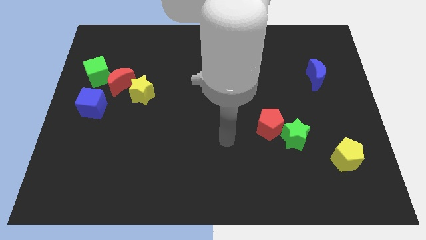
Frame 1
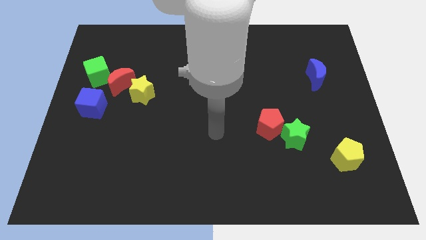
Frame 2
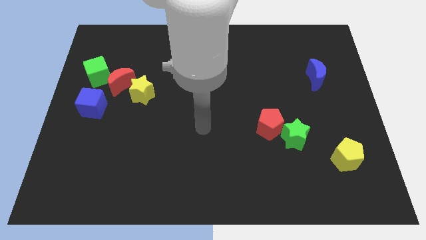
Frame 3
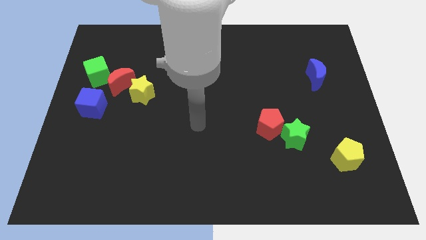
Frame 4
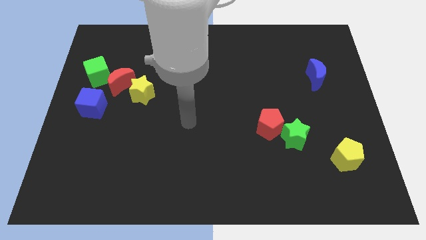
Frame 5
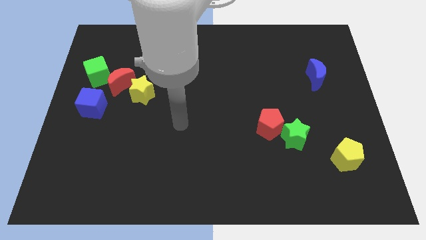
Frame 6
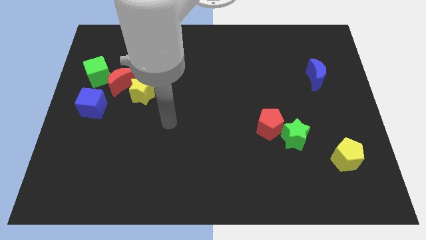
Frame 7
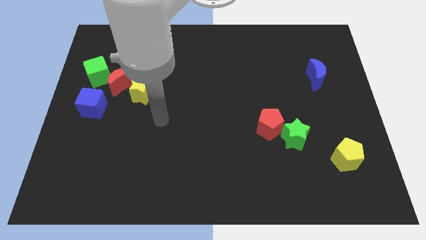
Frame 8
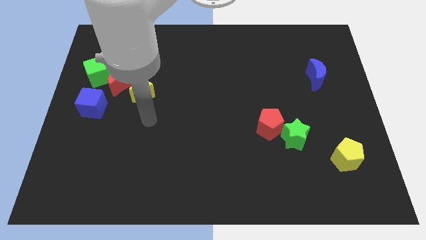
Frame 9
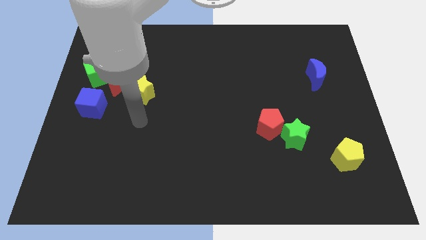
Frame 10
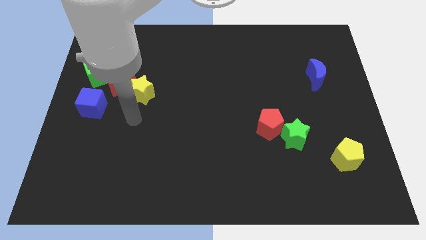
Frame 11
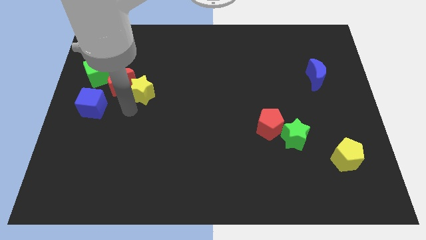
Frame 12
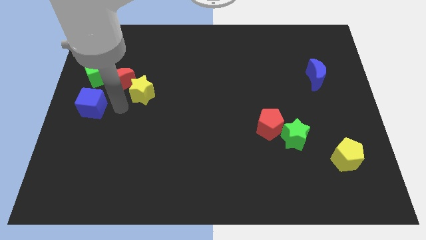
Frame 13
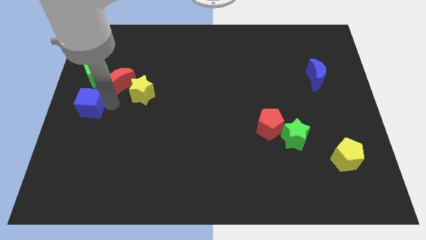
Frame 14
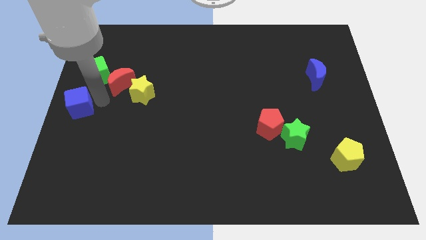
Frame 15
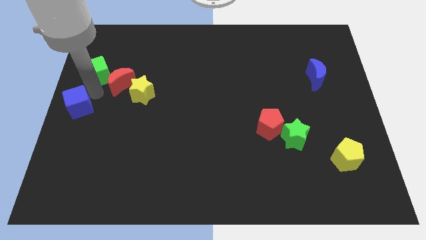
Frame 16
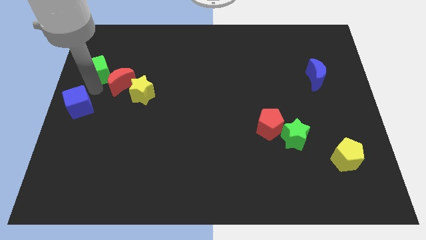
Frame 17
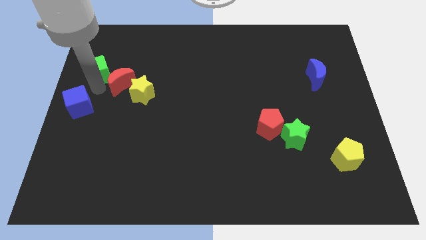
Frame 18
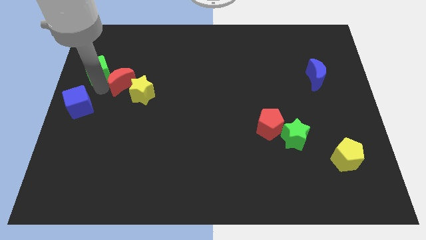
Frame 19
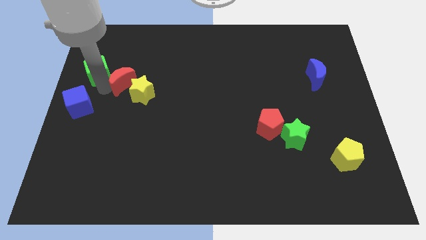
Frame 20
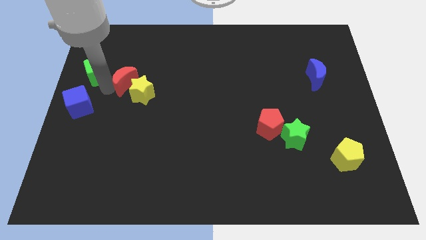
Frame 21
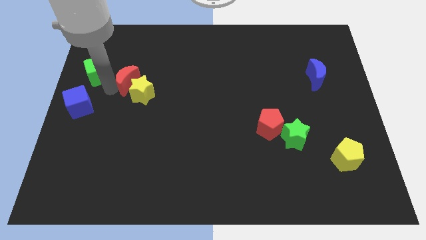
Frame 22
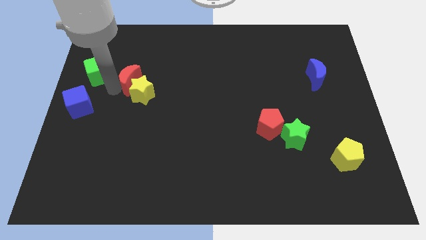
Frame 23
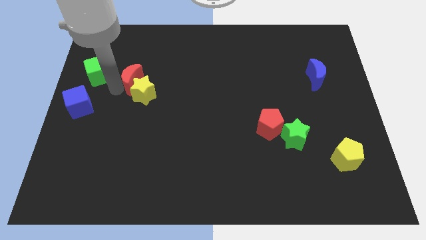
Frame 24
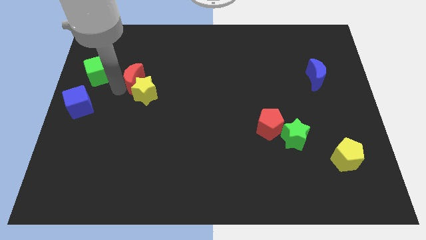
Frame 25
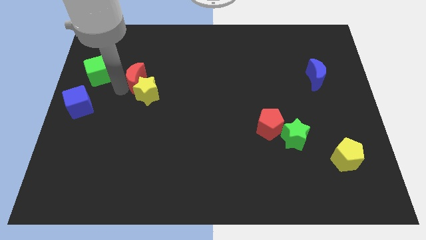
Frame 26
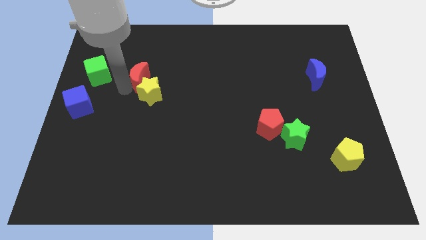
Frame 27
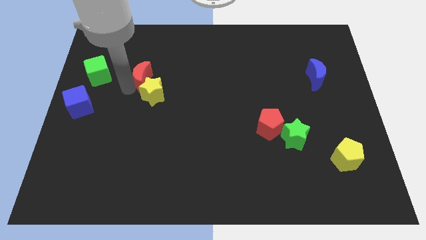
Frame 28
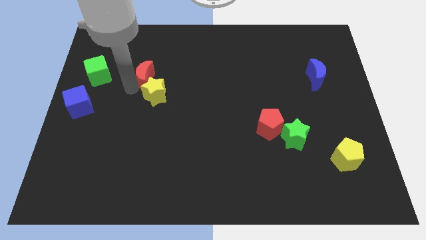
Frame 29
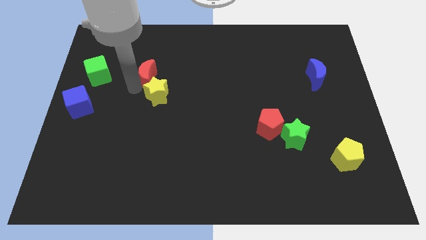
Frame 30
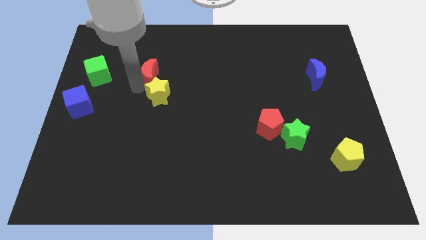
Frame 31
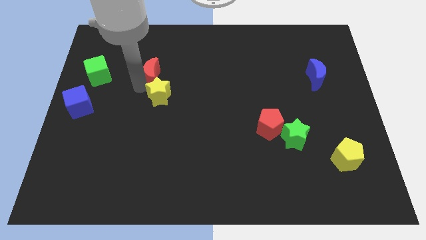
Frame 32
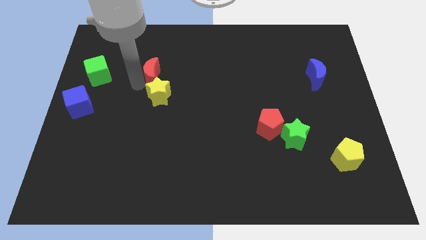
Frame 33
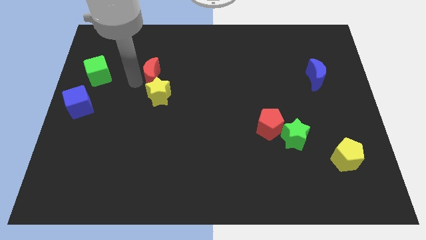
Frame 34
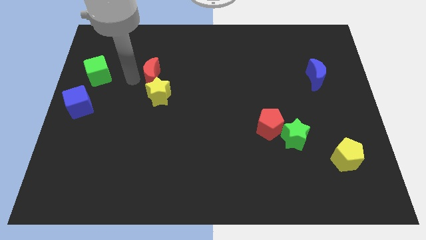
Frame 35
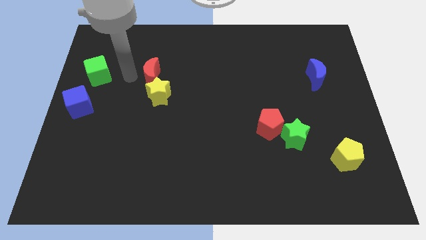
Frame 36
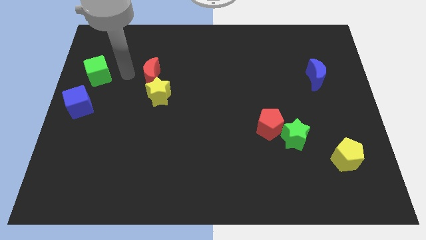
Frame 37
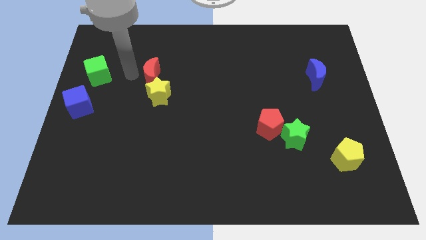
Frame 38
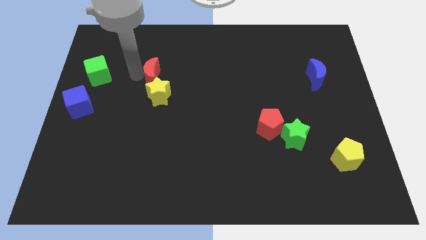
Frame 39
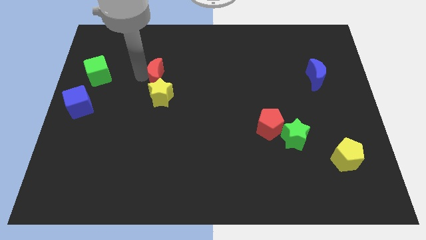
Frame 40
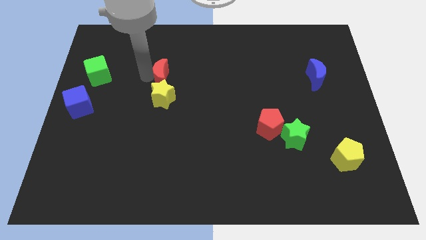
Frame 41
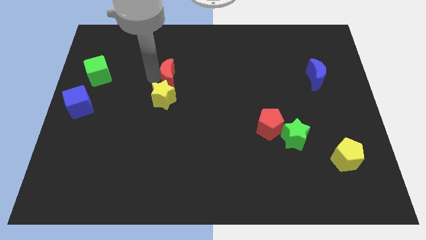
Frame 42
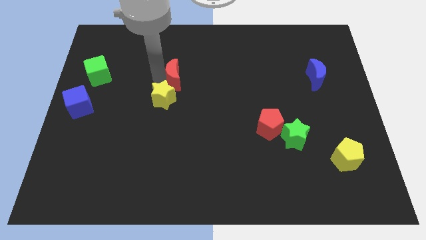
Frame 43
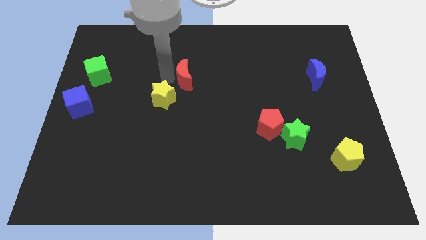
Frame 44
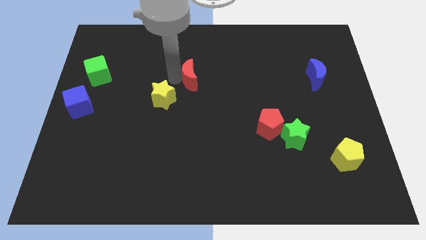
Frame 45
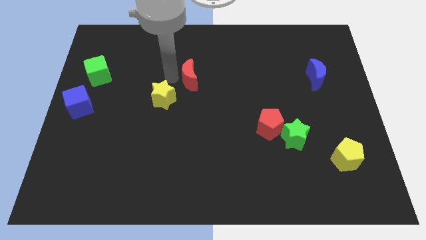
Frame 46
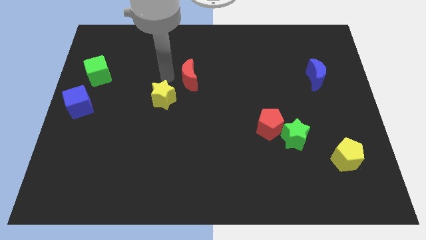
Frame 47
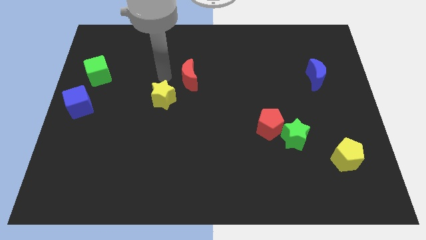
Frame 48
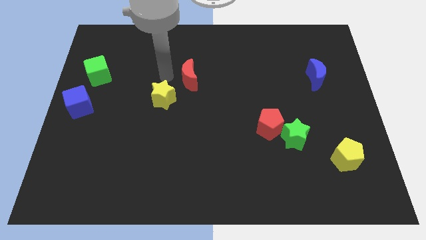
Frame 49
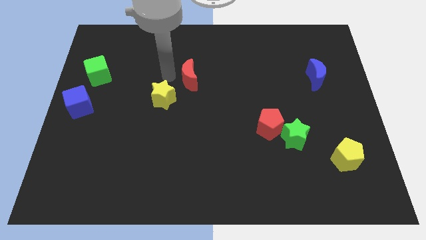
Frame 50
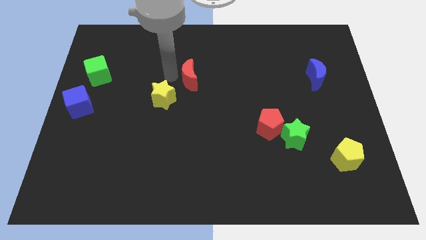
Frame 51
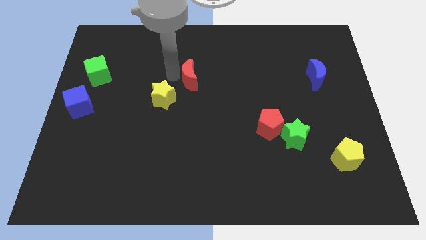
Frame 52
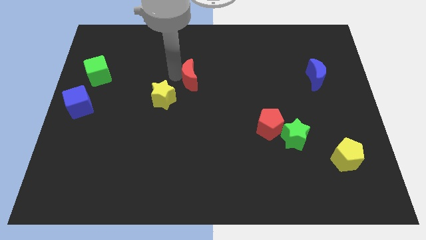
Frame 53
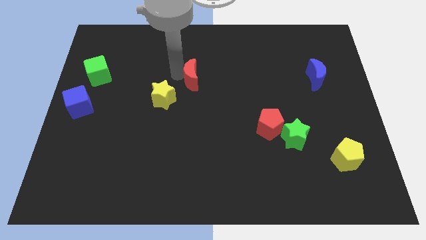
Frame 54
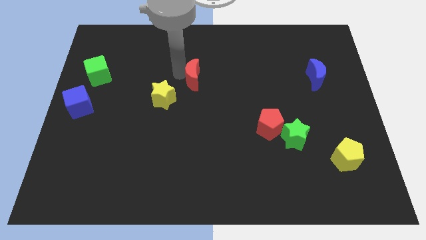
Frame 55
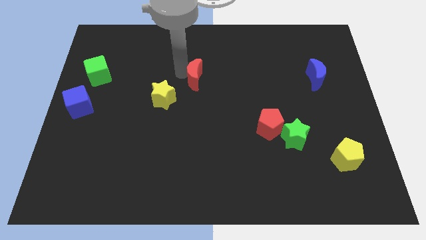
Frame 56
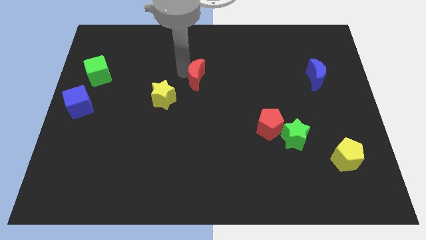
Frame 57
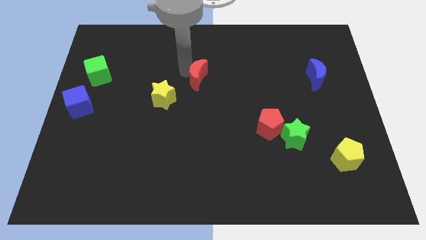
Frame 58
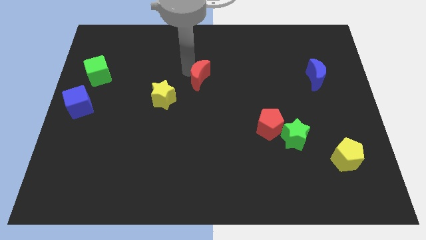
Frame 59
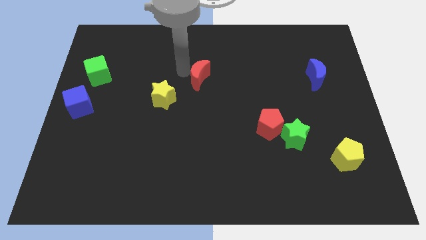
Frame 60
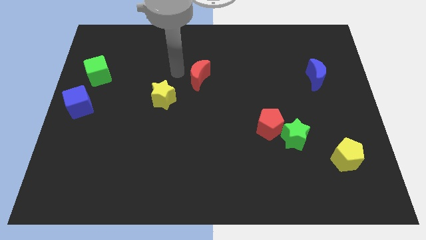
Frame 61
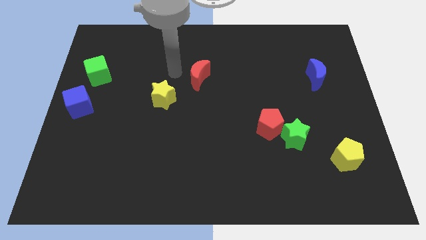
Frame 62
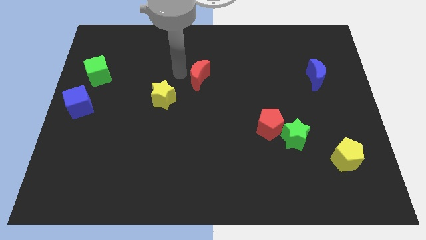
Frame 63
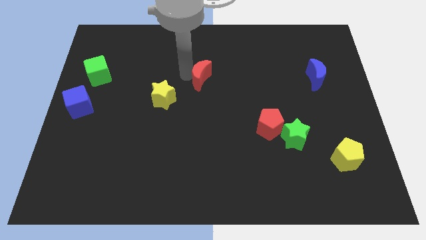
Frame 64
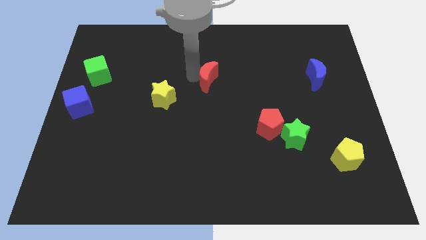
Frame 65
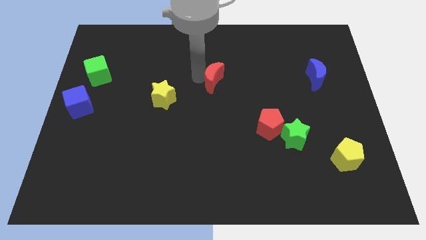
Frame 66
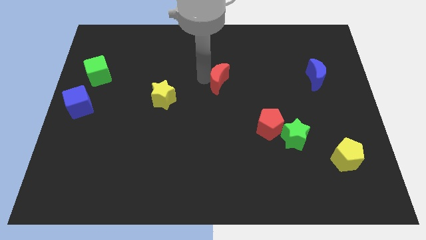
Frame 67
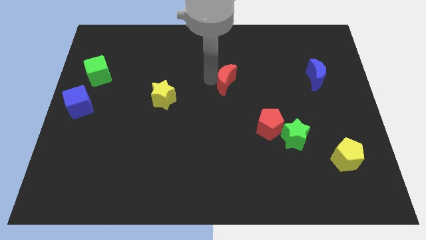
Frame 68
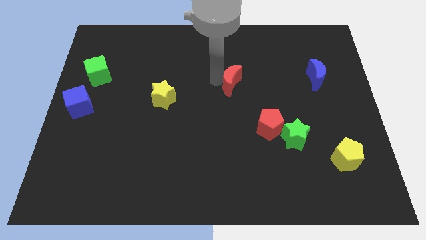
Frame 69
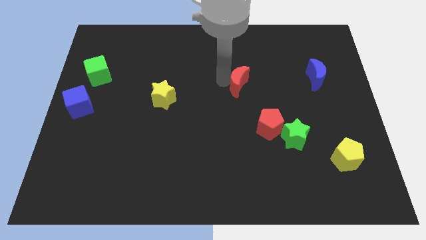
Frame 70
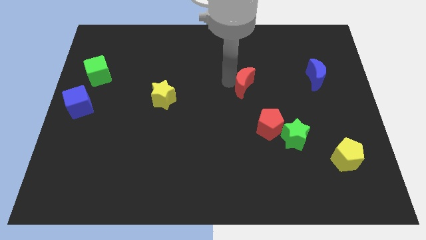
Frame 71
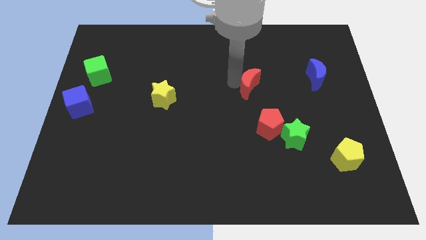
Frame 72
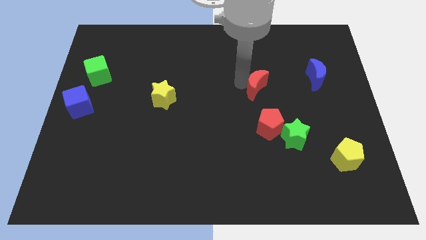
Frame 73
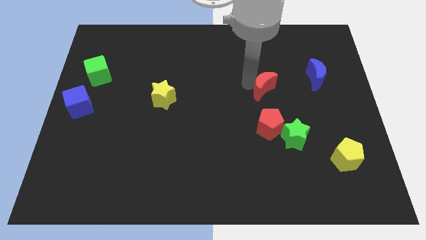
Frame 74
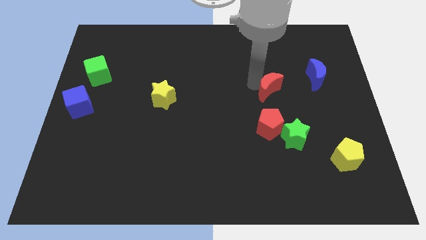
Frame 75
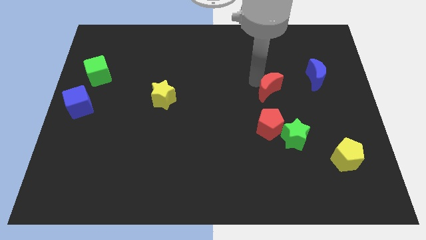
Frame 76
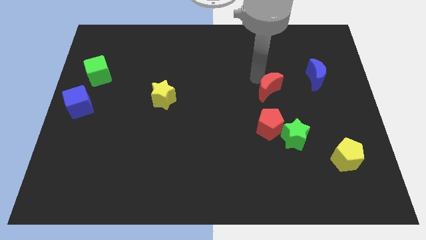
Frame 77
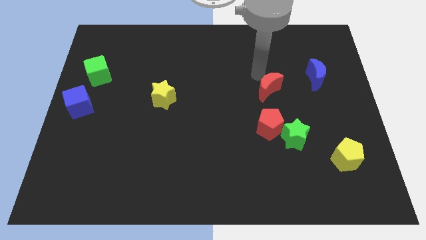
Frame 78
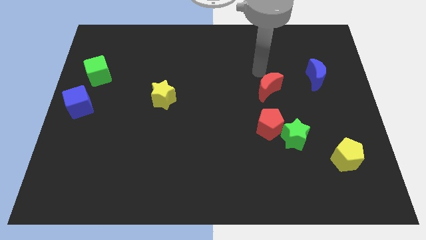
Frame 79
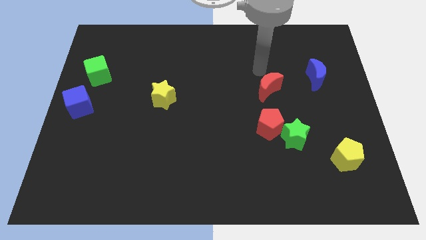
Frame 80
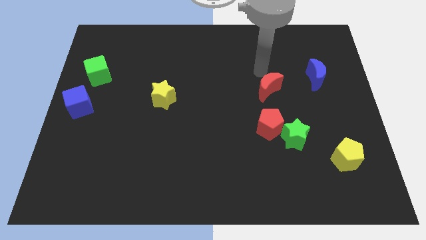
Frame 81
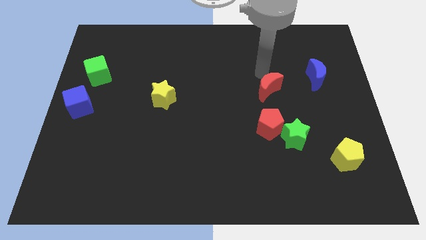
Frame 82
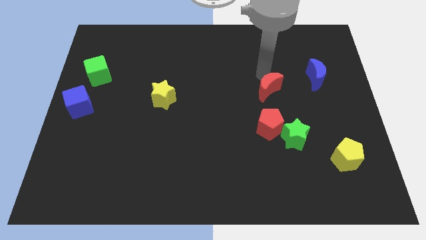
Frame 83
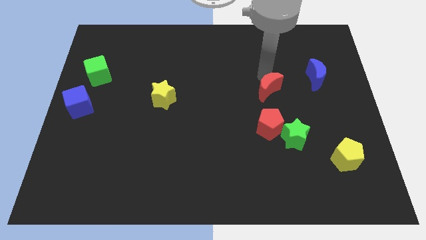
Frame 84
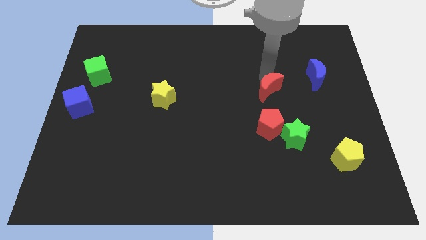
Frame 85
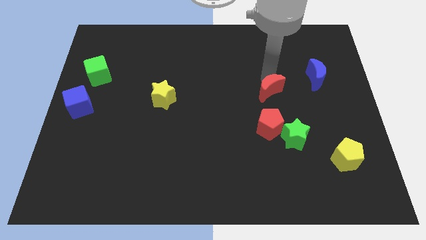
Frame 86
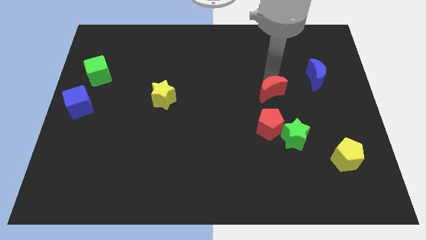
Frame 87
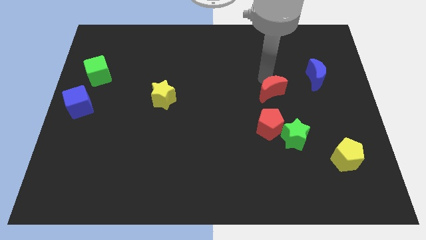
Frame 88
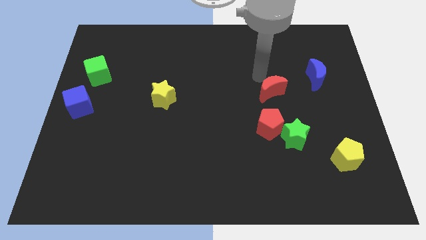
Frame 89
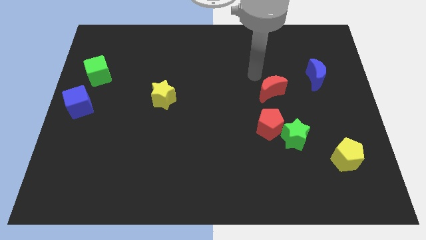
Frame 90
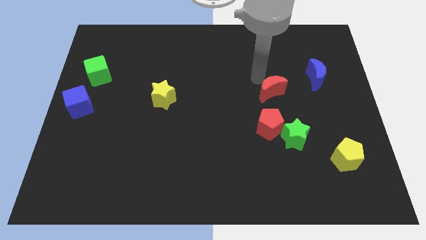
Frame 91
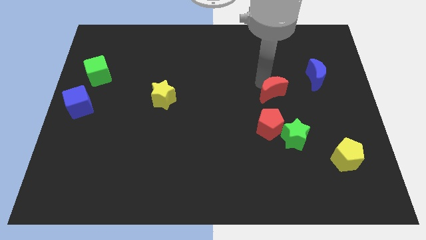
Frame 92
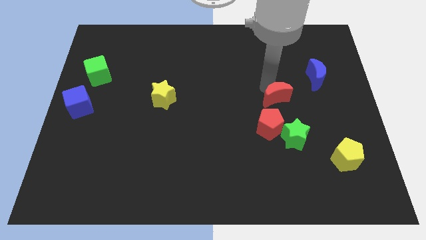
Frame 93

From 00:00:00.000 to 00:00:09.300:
move the red moon diagonally up and to the right of the red pentagon
